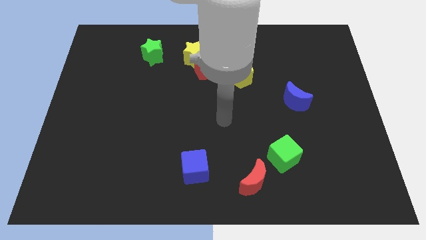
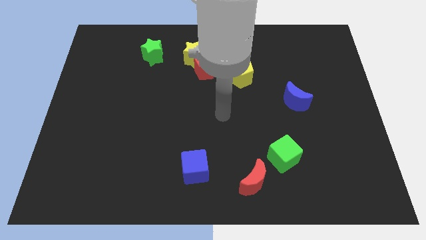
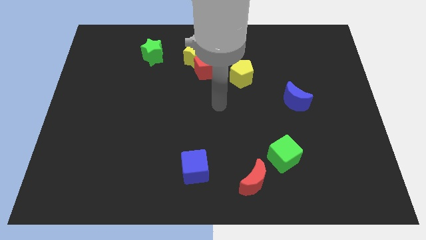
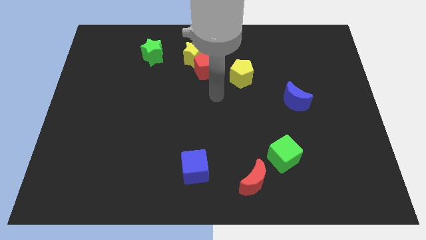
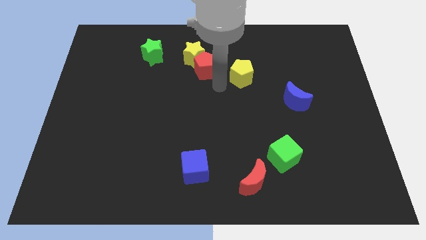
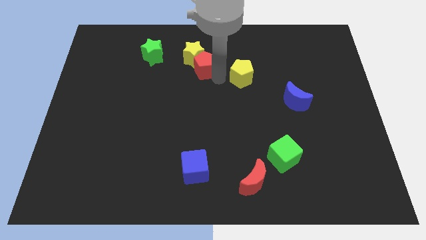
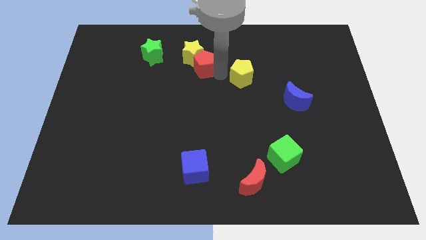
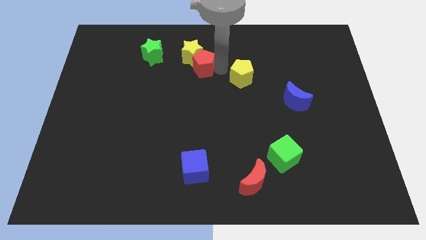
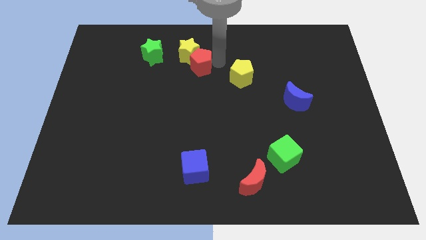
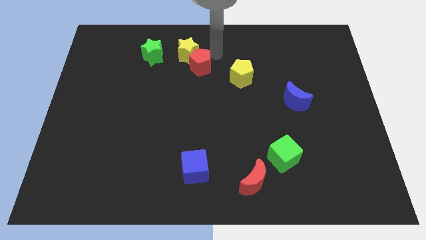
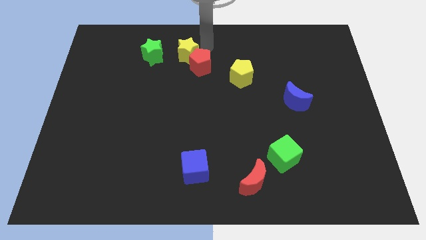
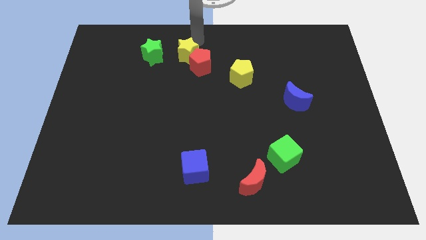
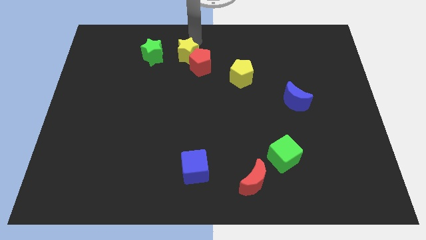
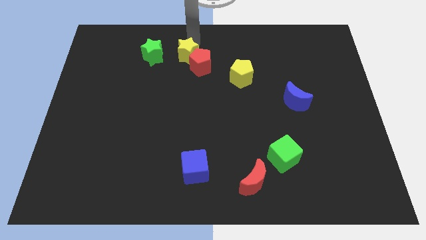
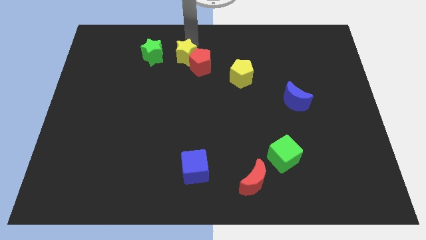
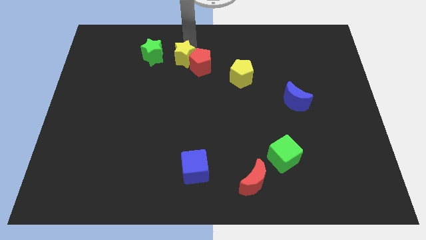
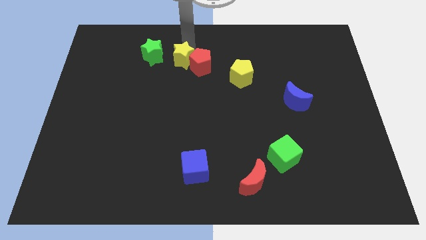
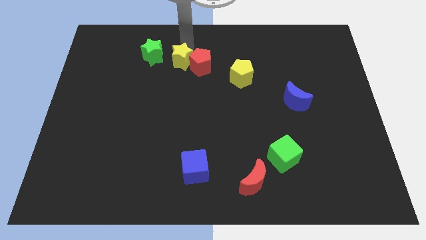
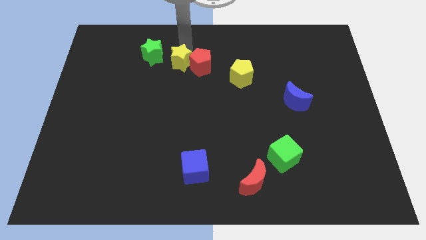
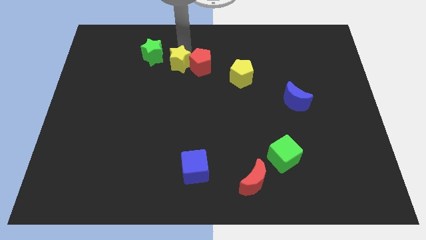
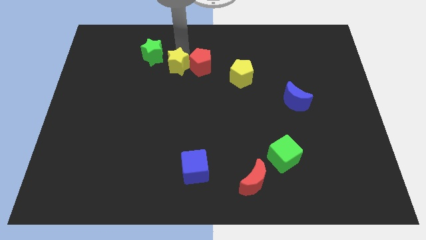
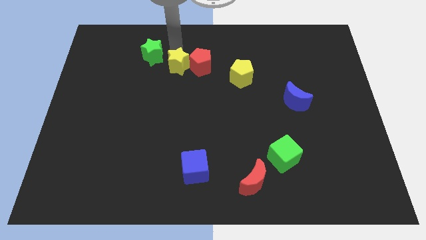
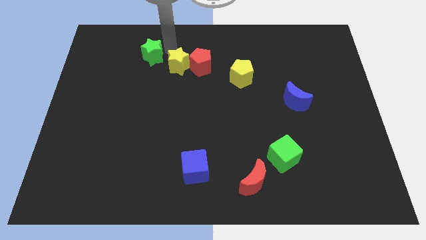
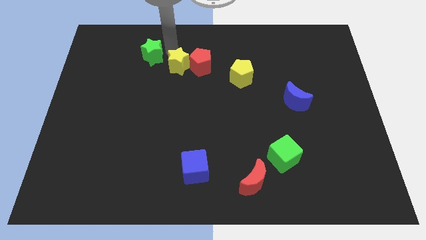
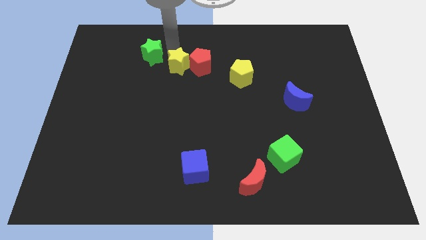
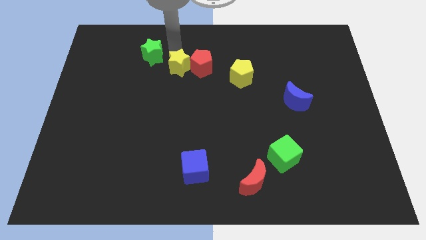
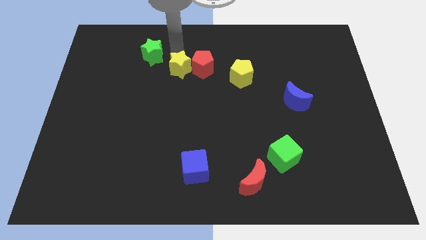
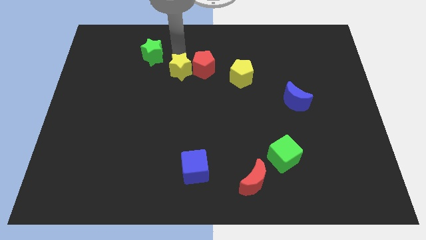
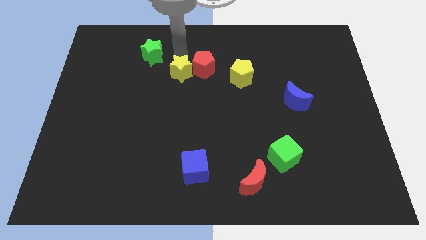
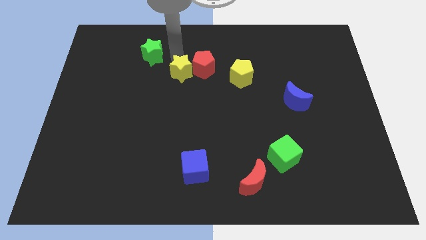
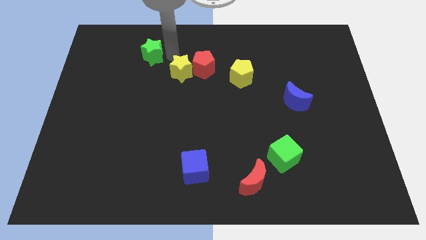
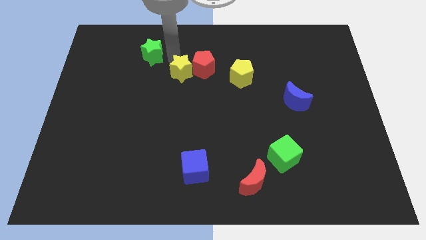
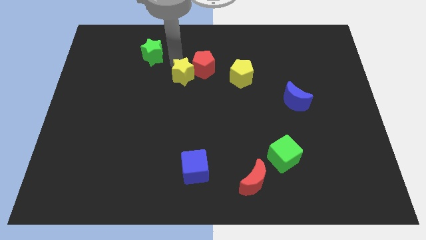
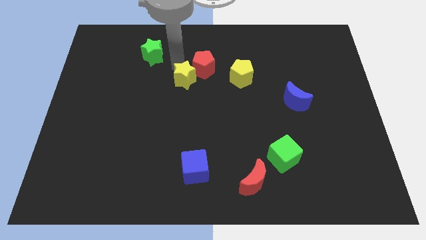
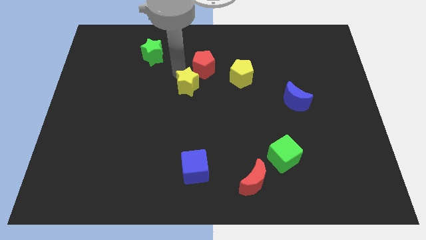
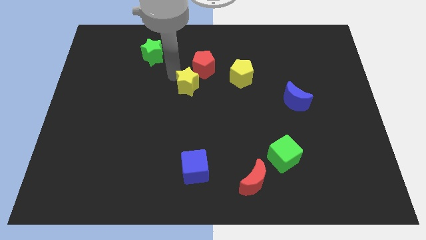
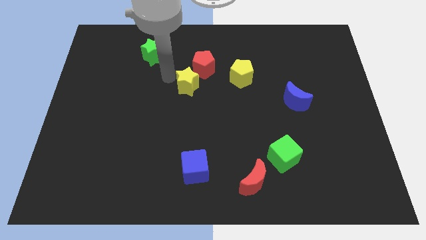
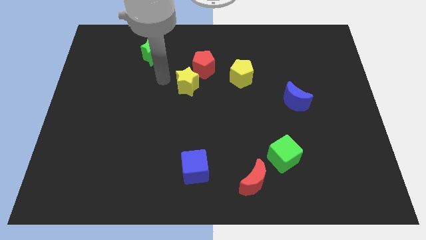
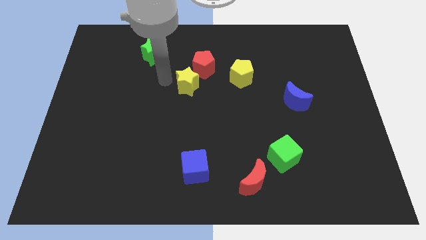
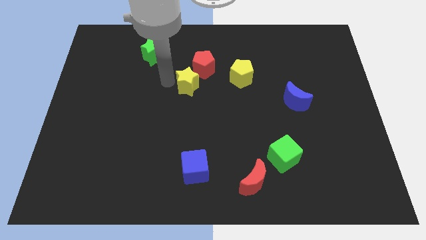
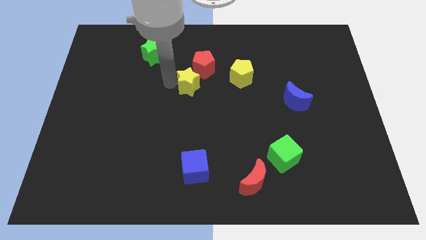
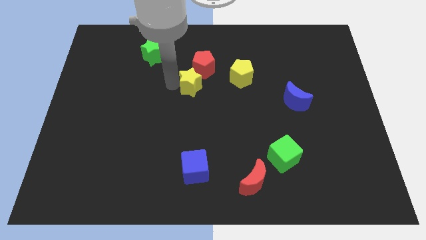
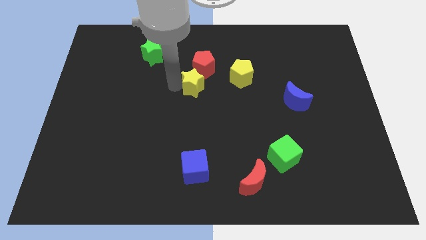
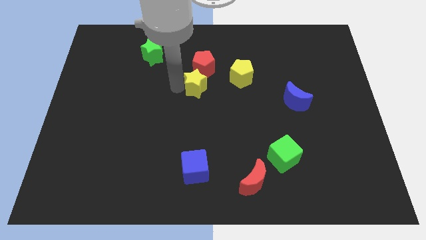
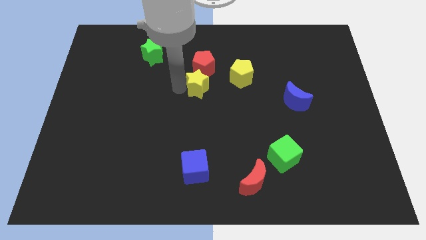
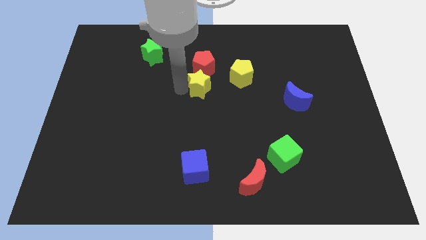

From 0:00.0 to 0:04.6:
push the yellow star somewhat downwards and to the right diagonally

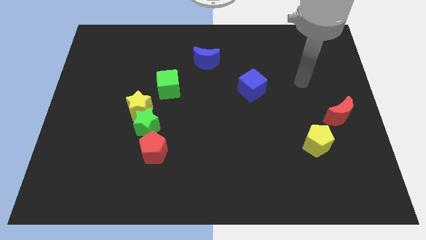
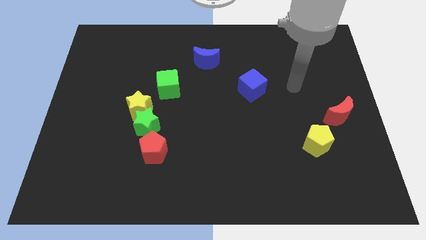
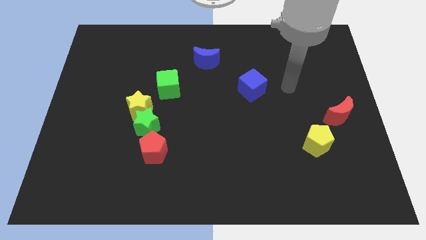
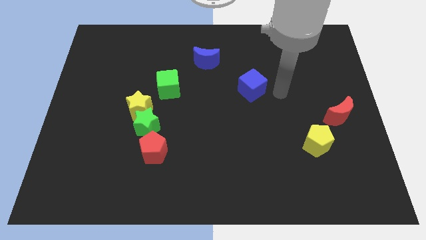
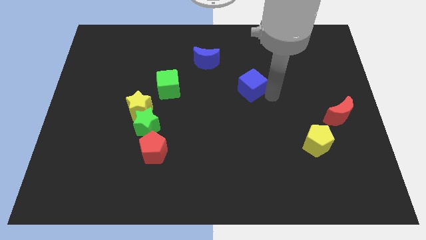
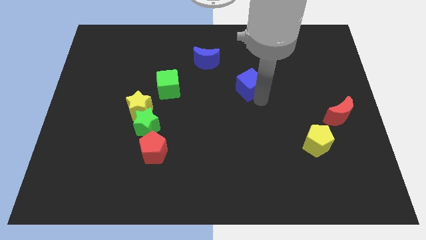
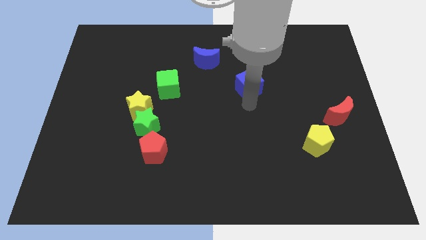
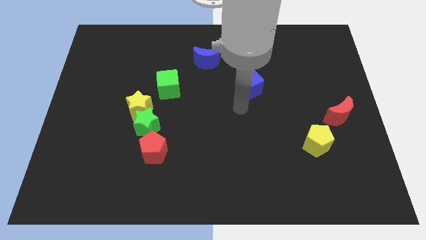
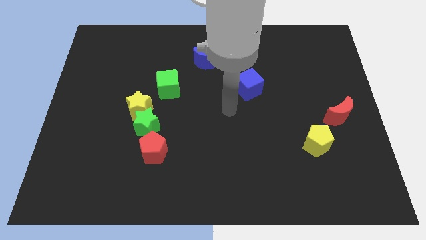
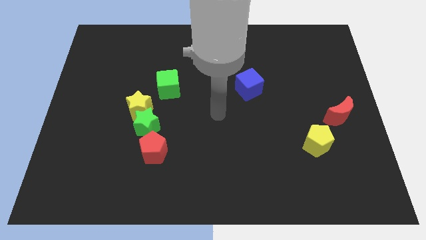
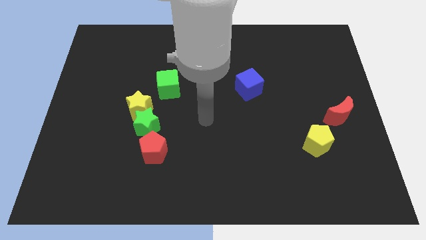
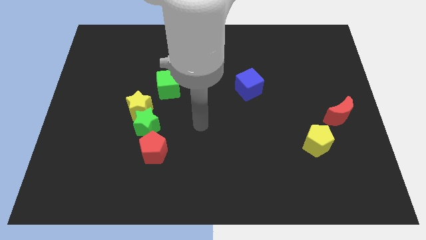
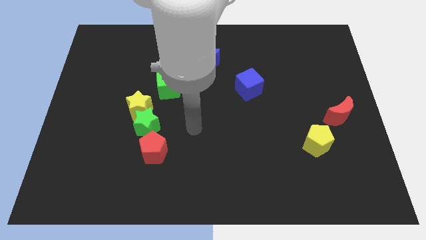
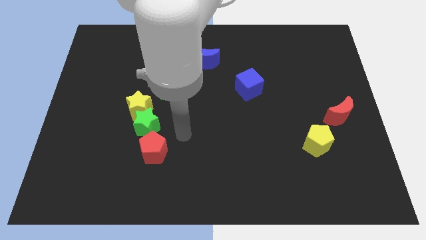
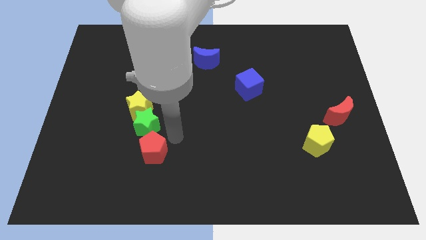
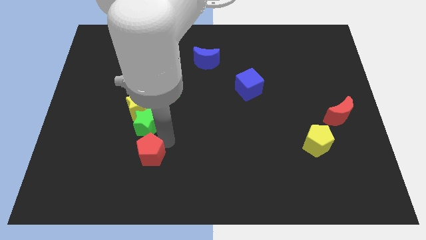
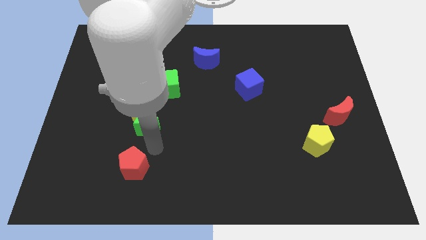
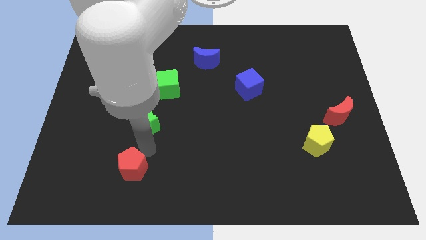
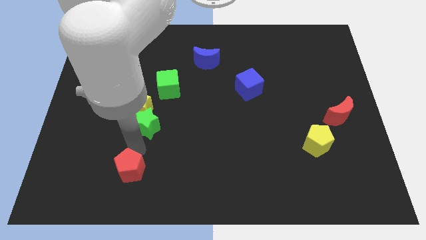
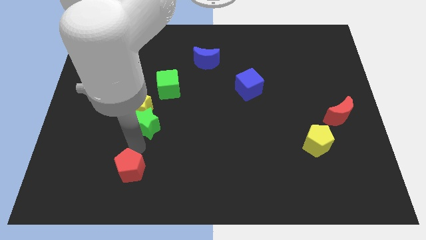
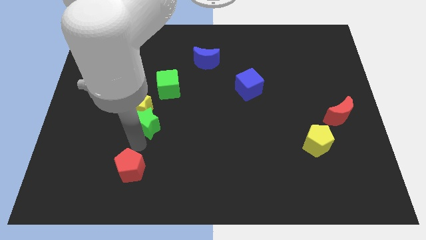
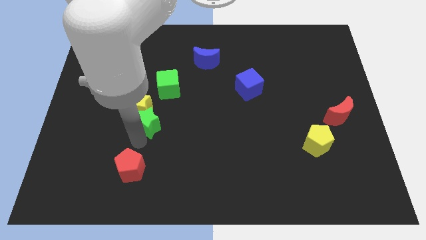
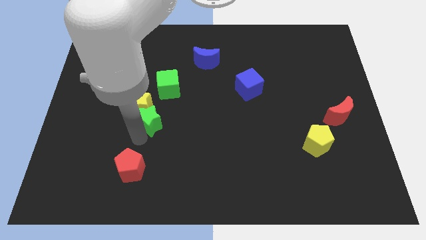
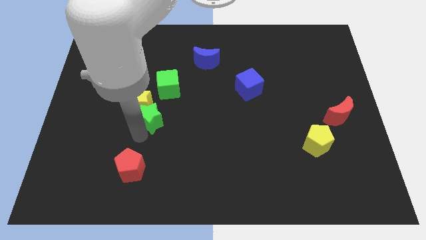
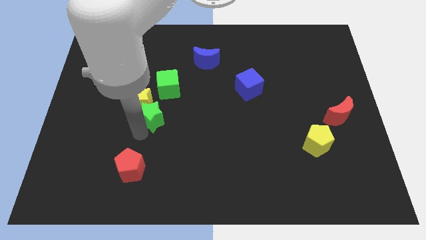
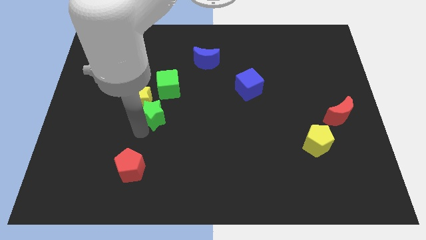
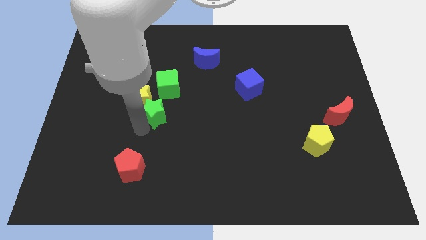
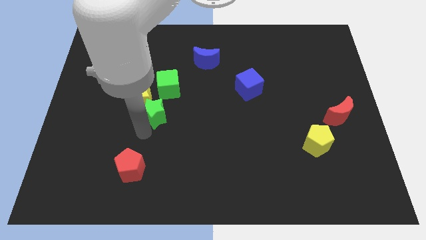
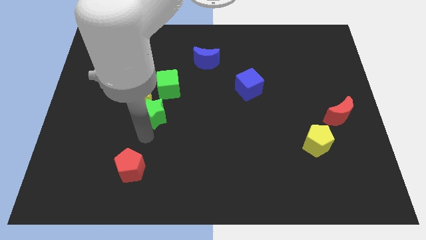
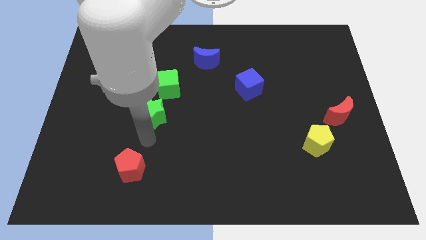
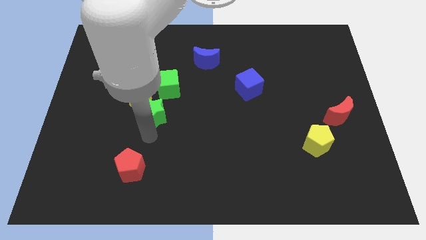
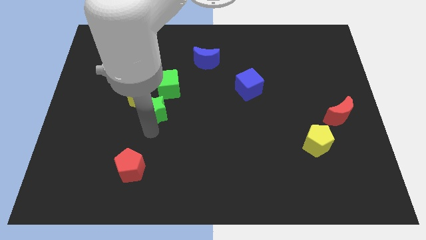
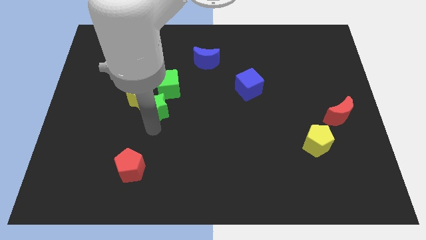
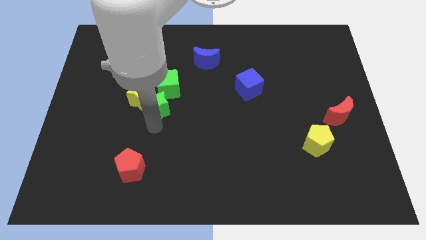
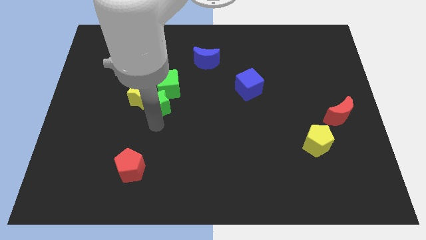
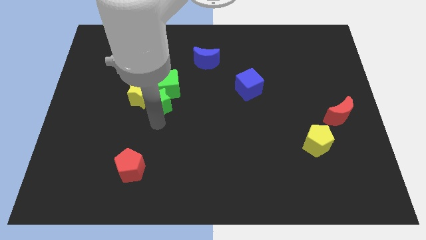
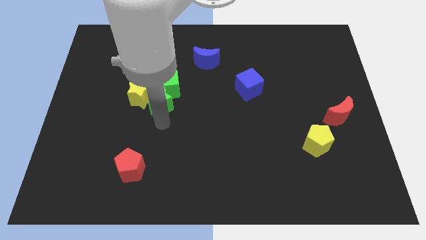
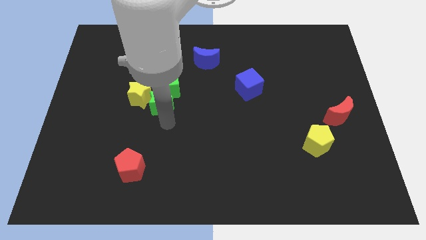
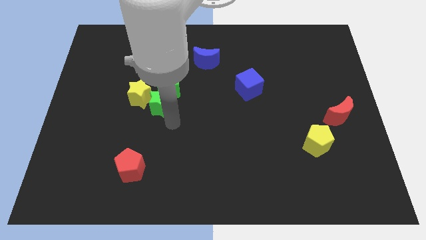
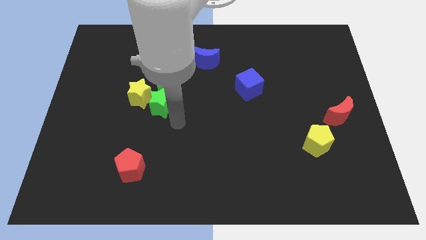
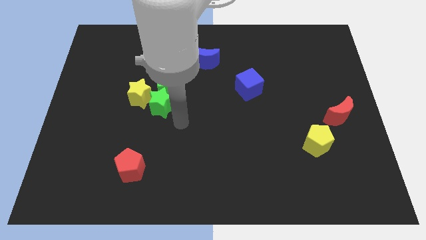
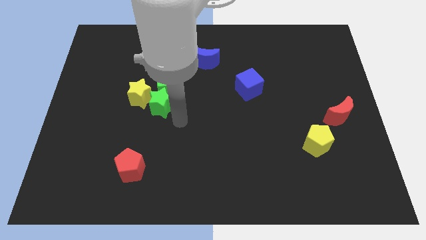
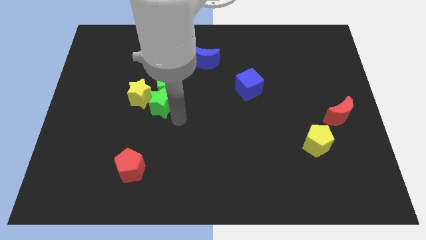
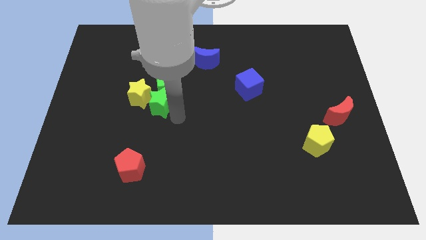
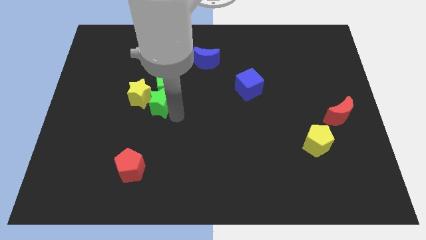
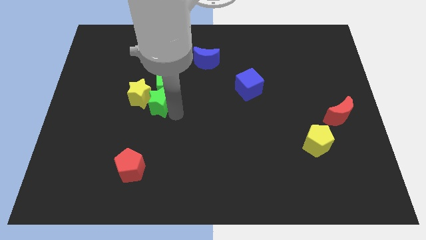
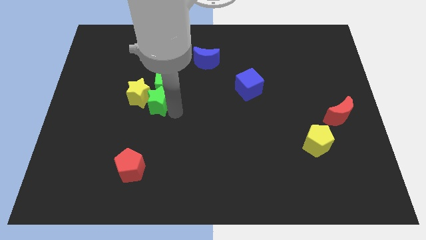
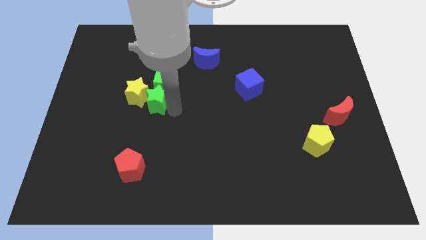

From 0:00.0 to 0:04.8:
slide the green star slightly upwards
